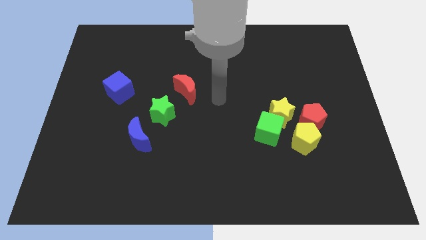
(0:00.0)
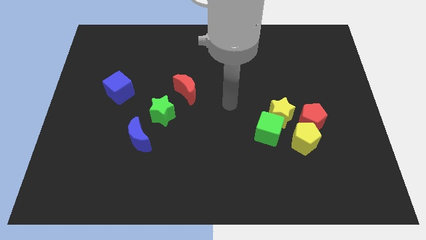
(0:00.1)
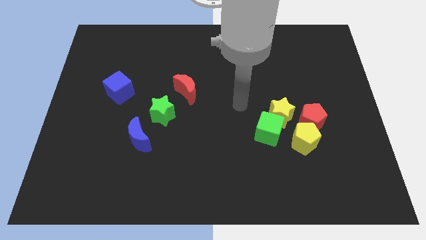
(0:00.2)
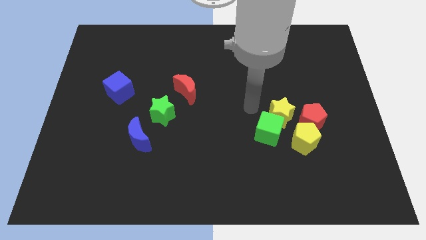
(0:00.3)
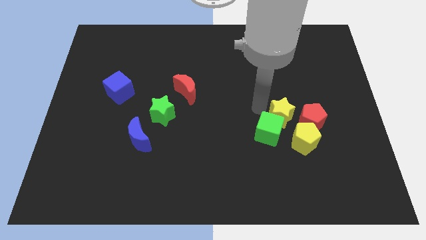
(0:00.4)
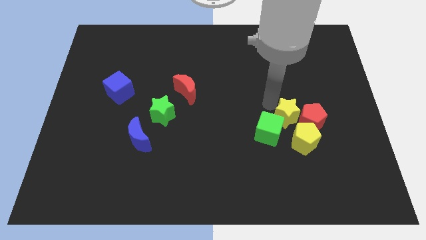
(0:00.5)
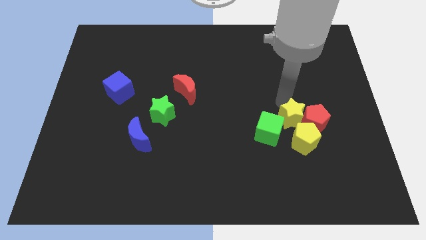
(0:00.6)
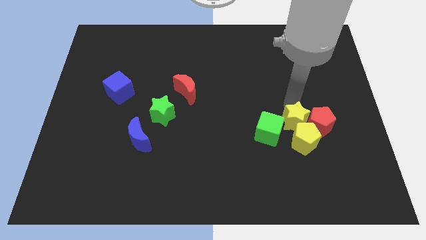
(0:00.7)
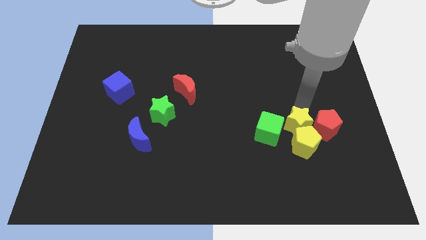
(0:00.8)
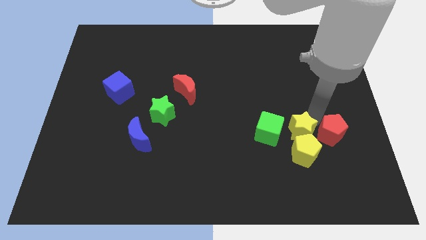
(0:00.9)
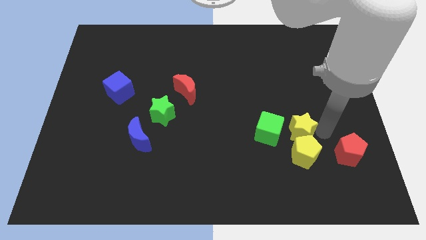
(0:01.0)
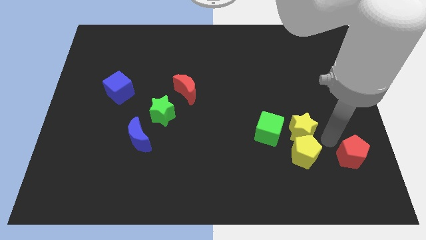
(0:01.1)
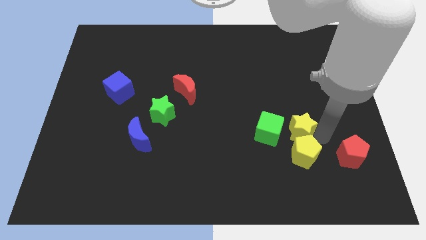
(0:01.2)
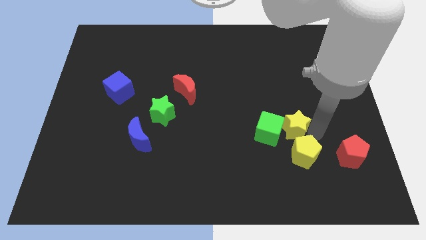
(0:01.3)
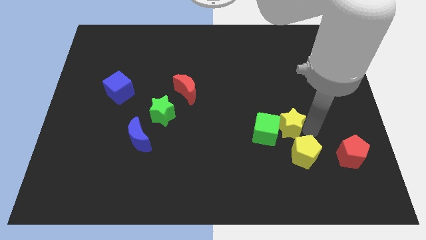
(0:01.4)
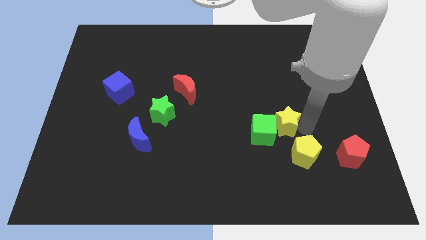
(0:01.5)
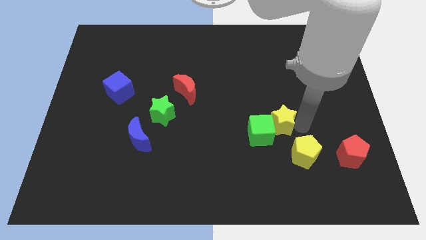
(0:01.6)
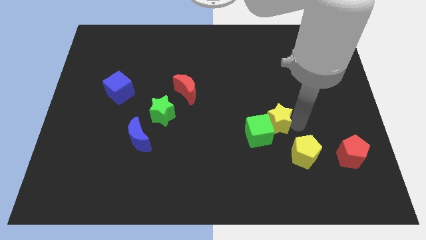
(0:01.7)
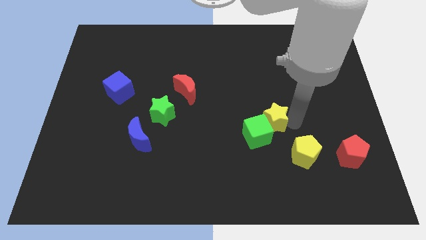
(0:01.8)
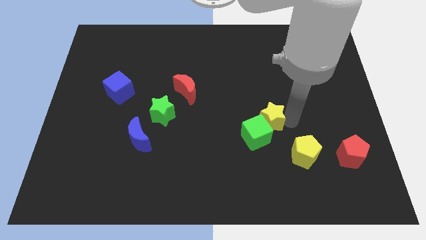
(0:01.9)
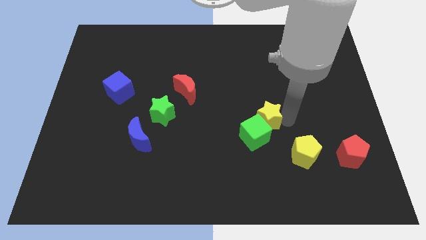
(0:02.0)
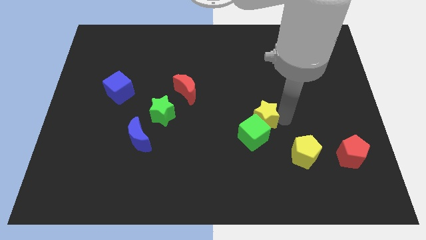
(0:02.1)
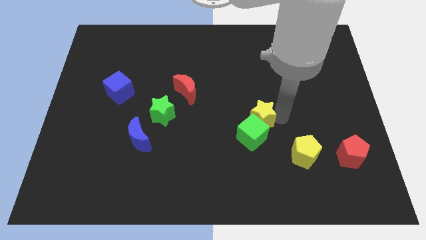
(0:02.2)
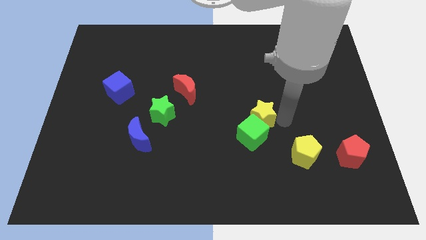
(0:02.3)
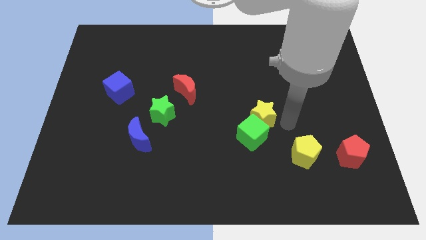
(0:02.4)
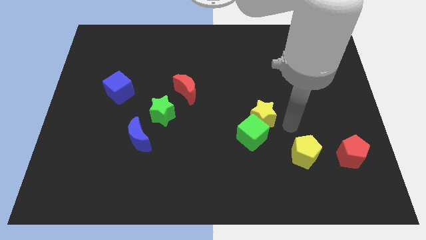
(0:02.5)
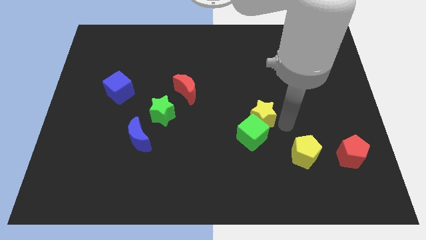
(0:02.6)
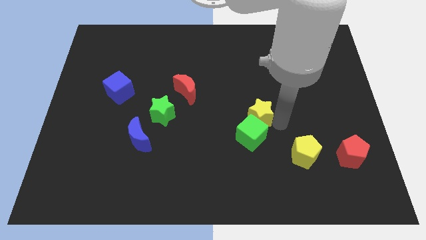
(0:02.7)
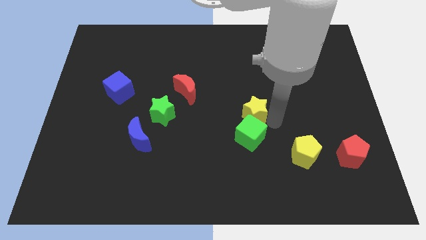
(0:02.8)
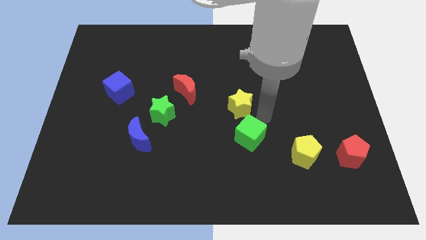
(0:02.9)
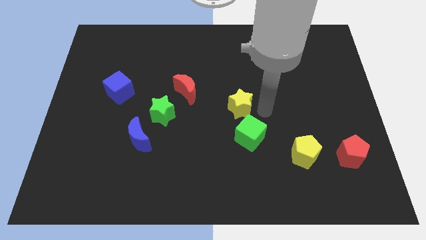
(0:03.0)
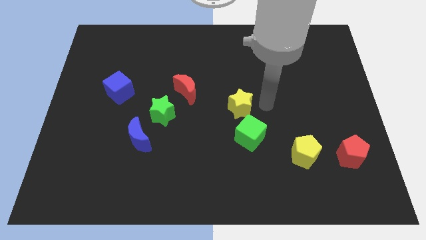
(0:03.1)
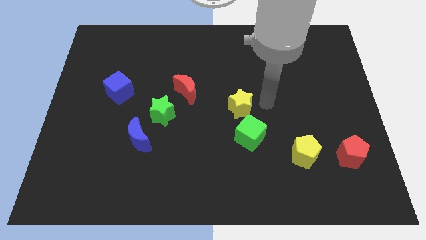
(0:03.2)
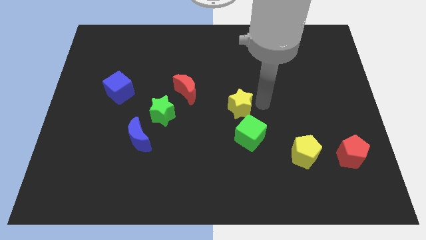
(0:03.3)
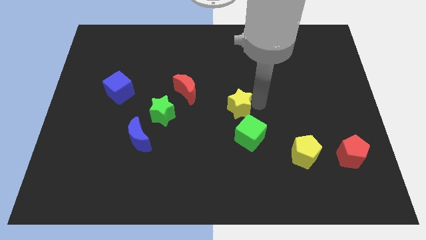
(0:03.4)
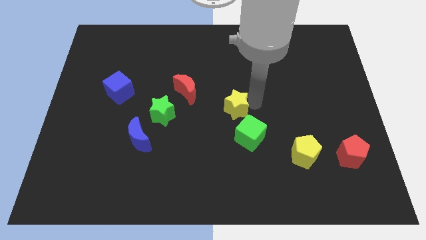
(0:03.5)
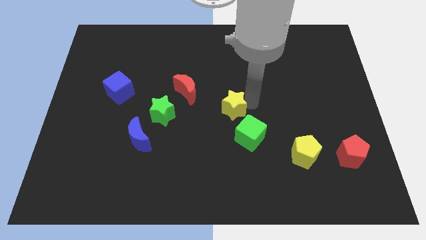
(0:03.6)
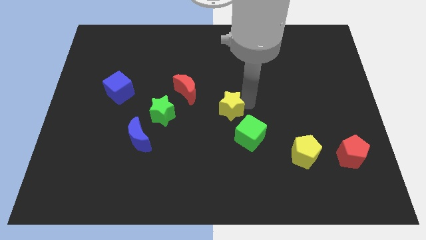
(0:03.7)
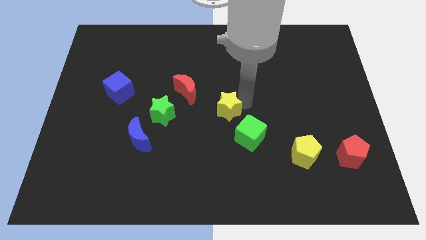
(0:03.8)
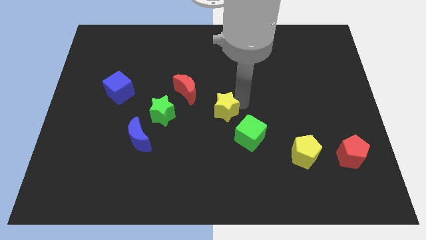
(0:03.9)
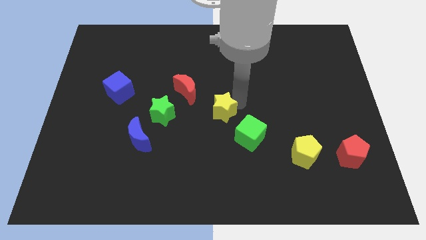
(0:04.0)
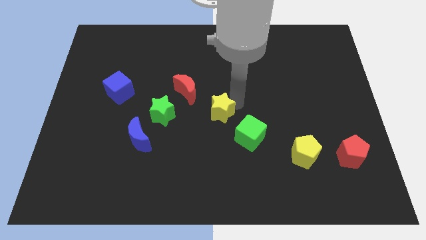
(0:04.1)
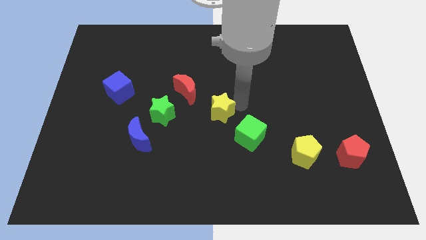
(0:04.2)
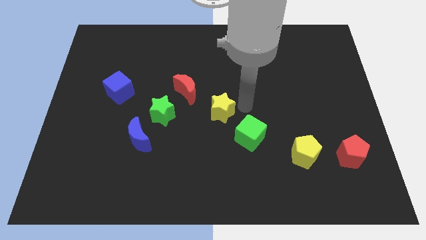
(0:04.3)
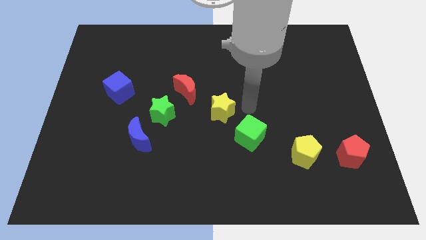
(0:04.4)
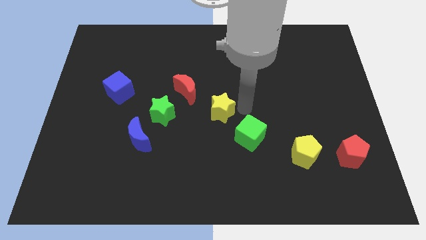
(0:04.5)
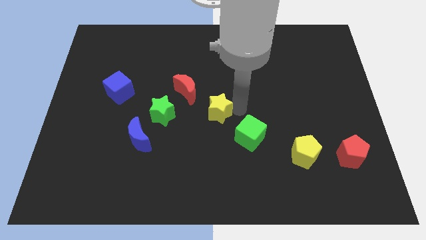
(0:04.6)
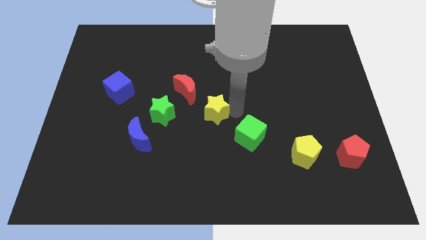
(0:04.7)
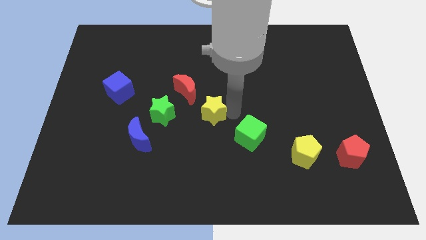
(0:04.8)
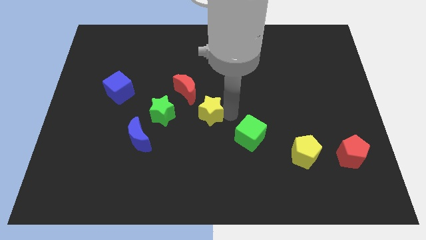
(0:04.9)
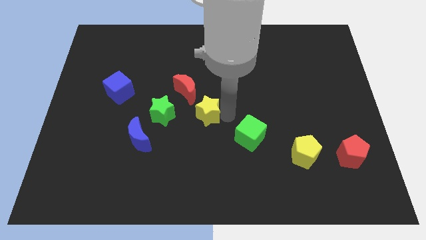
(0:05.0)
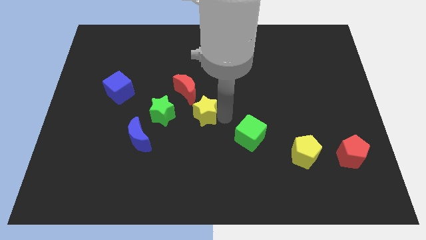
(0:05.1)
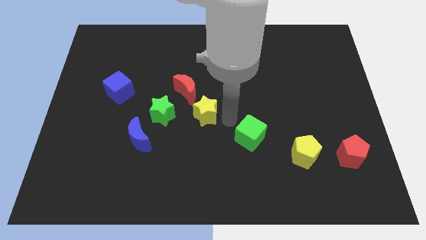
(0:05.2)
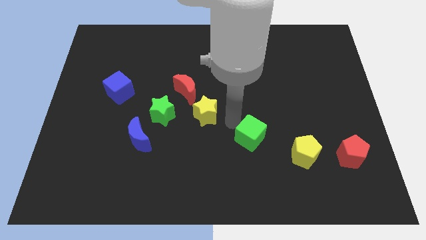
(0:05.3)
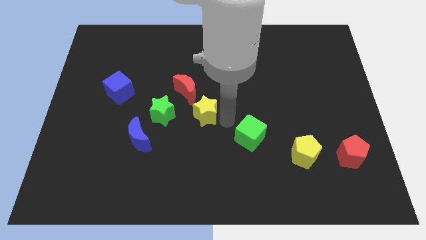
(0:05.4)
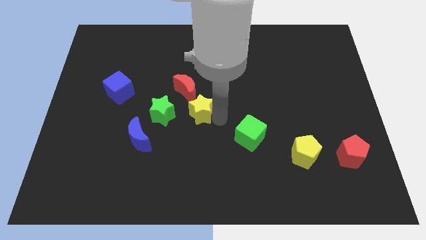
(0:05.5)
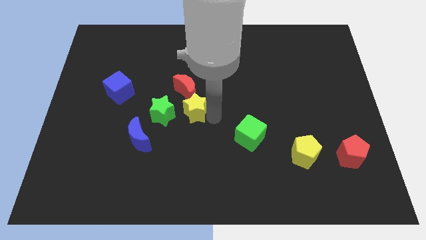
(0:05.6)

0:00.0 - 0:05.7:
push the yellow star left

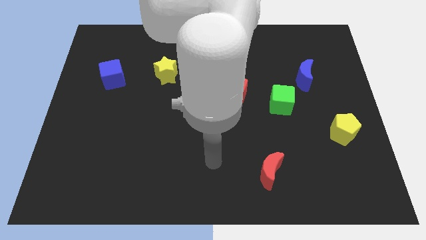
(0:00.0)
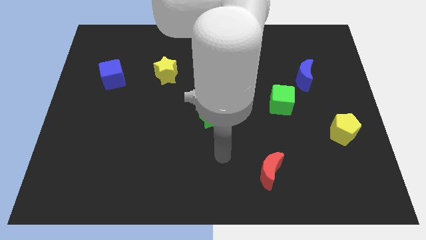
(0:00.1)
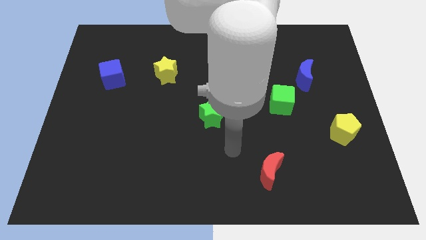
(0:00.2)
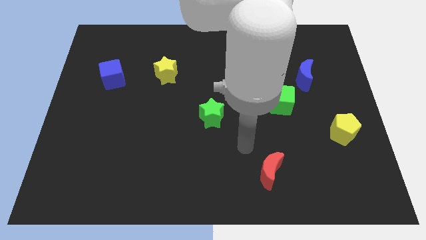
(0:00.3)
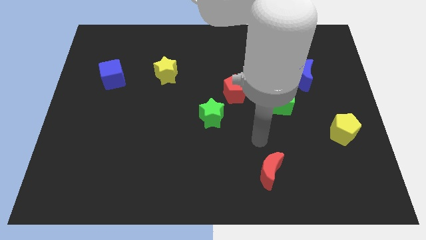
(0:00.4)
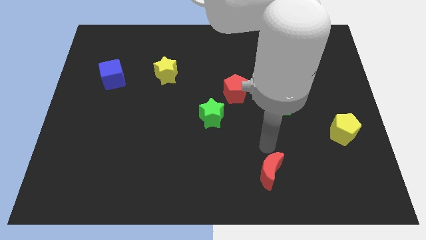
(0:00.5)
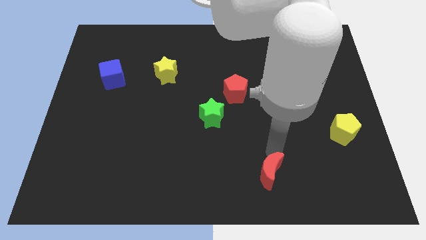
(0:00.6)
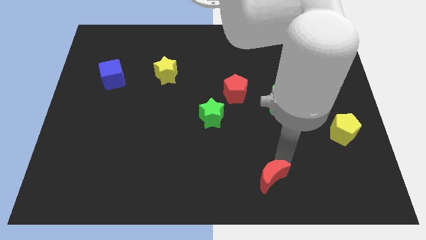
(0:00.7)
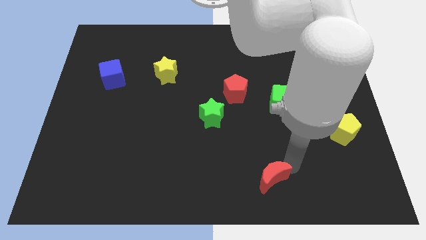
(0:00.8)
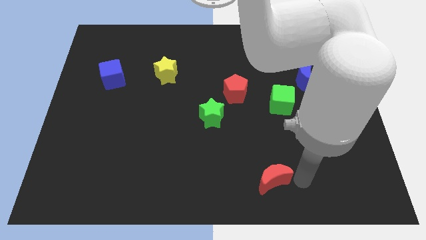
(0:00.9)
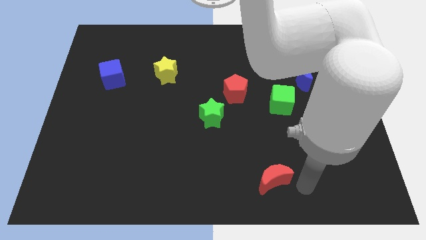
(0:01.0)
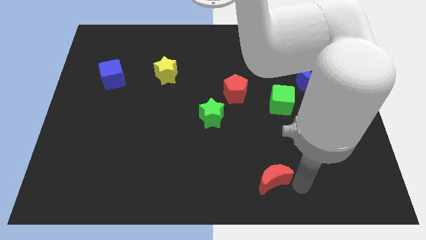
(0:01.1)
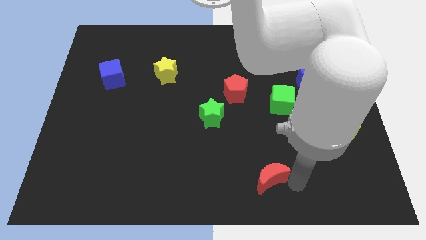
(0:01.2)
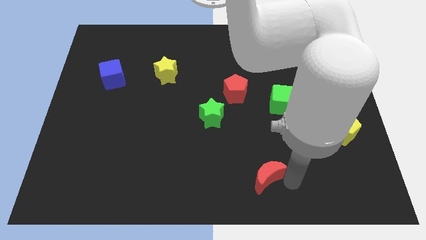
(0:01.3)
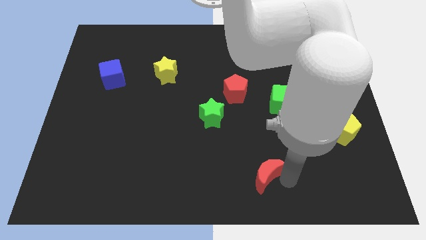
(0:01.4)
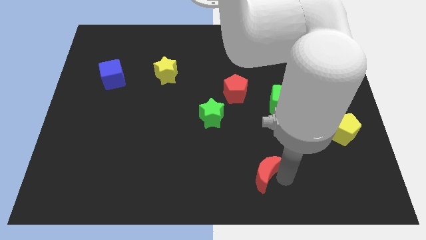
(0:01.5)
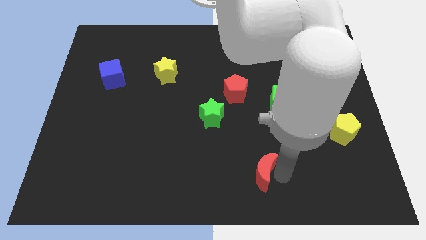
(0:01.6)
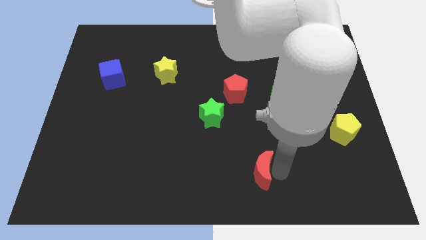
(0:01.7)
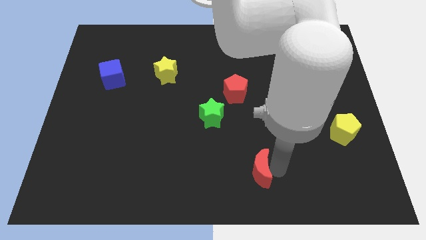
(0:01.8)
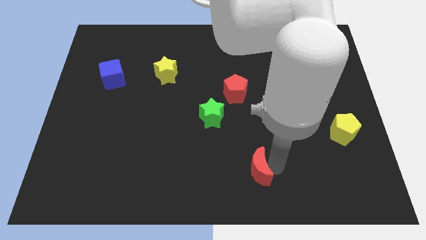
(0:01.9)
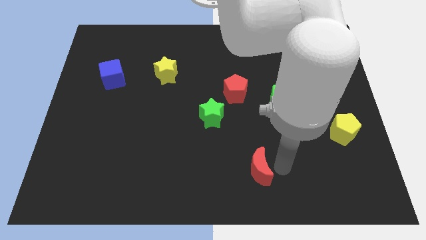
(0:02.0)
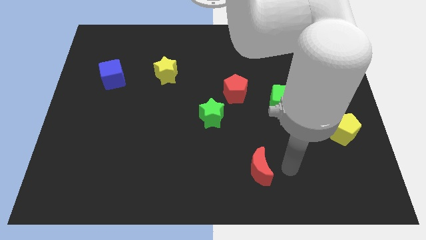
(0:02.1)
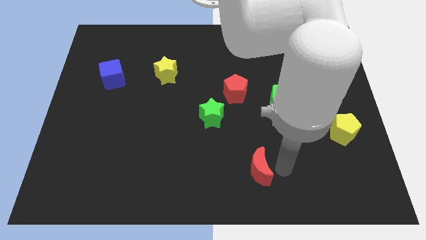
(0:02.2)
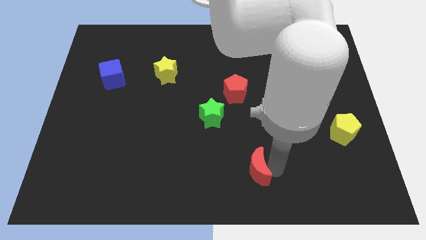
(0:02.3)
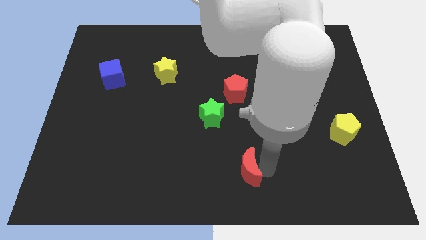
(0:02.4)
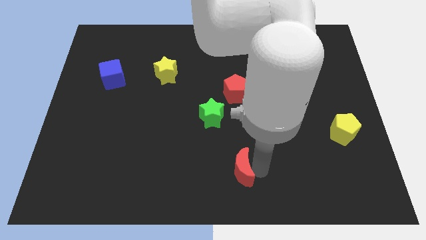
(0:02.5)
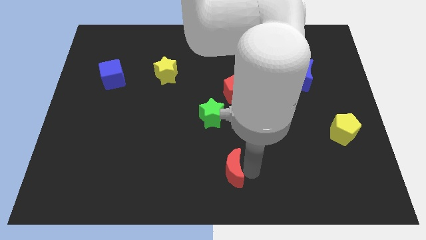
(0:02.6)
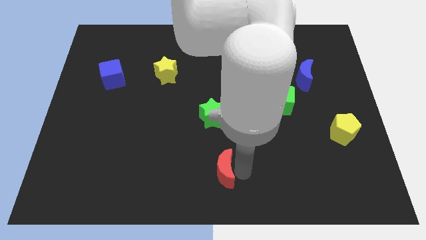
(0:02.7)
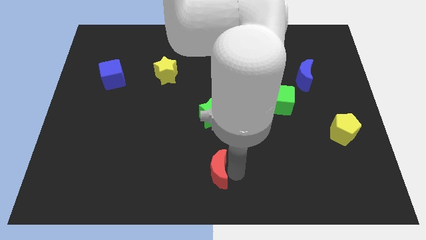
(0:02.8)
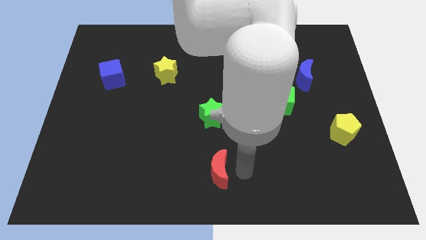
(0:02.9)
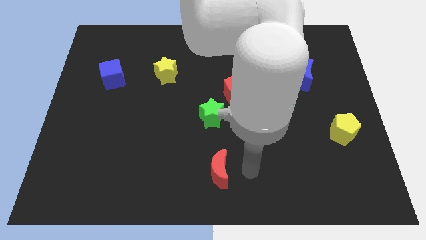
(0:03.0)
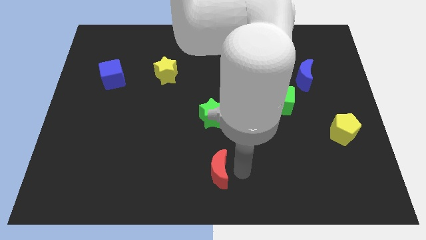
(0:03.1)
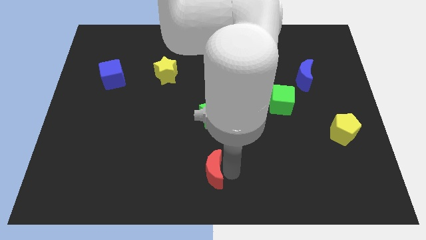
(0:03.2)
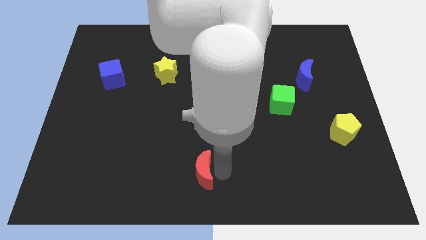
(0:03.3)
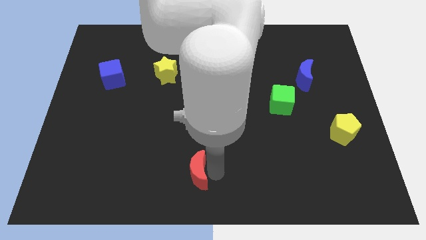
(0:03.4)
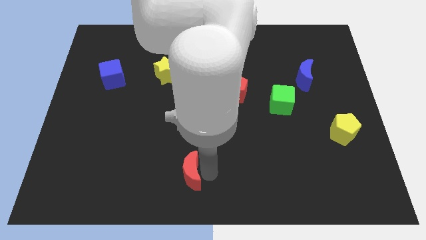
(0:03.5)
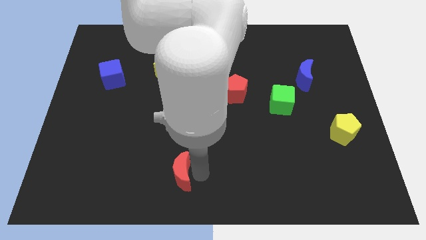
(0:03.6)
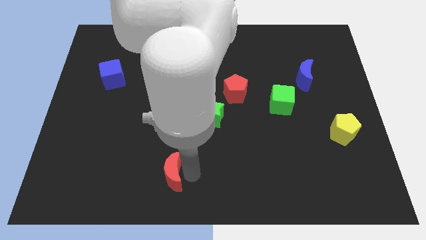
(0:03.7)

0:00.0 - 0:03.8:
push the red moon to the left
